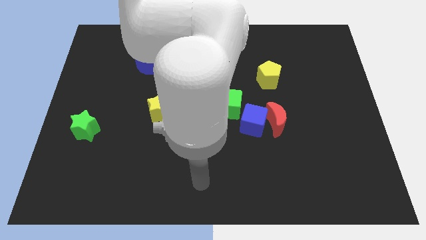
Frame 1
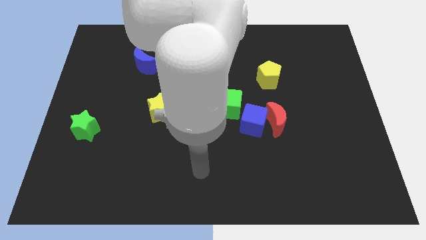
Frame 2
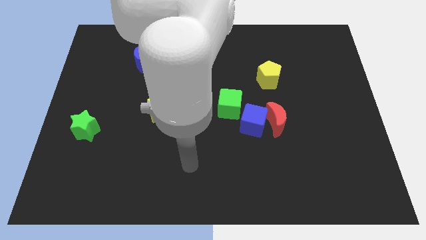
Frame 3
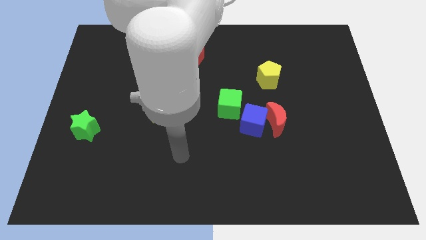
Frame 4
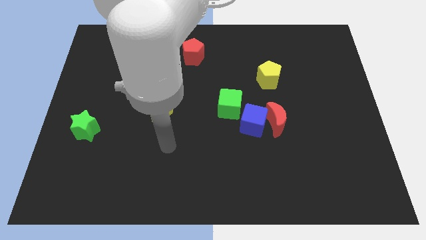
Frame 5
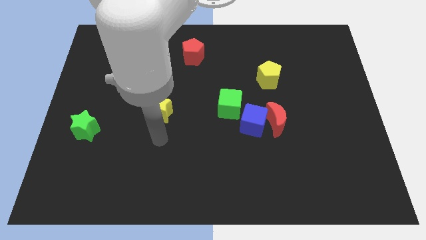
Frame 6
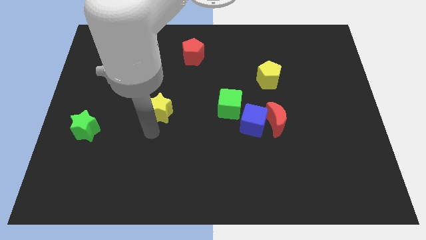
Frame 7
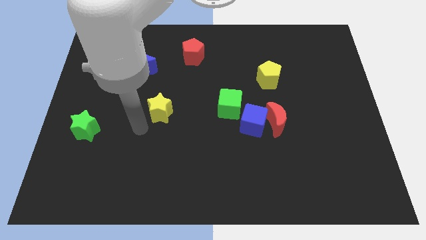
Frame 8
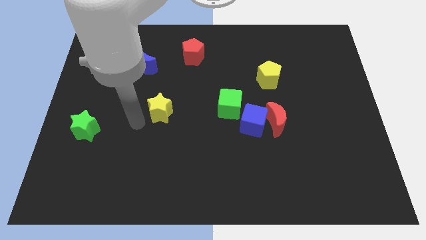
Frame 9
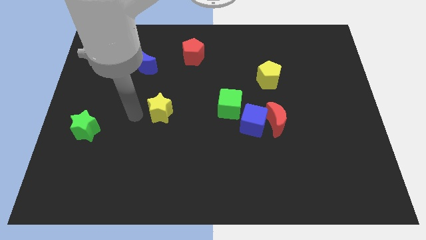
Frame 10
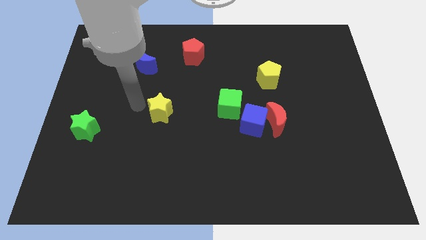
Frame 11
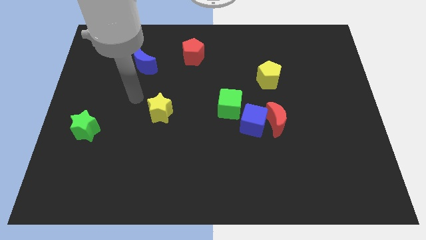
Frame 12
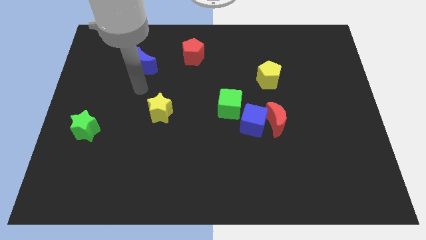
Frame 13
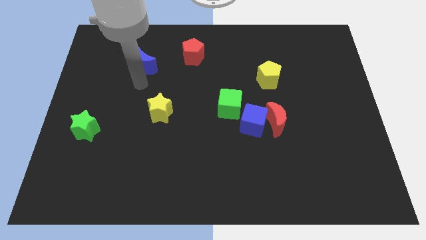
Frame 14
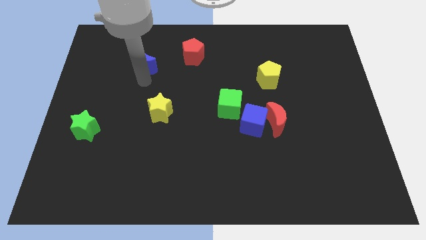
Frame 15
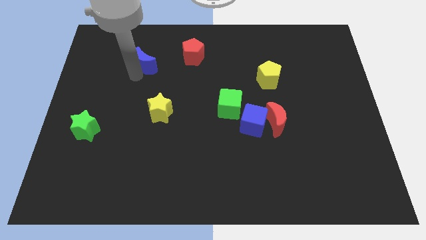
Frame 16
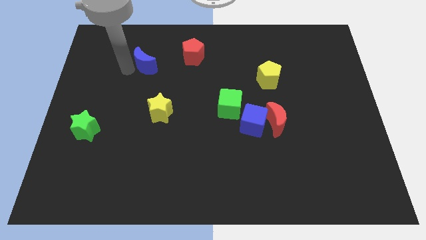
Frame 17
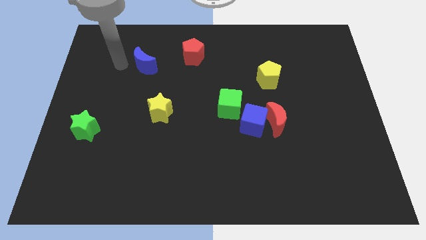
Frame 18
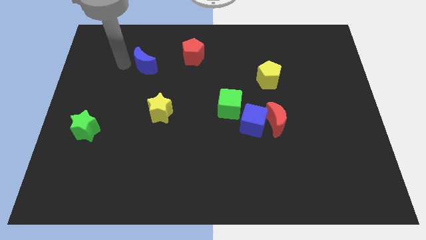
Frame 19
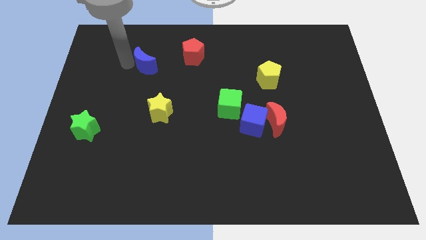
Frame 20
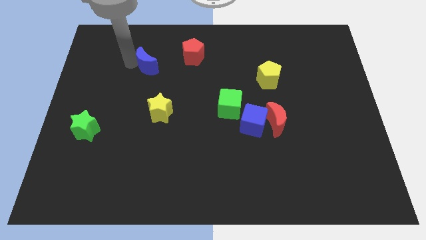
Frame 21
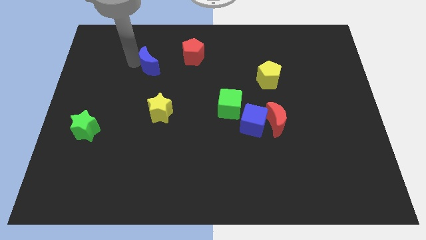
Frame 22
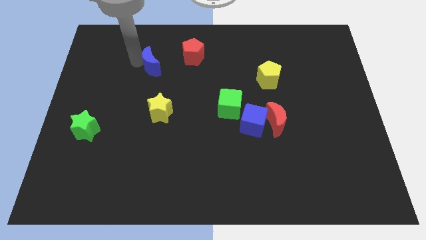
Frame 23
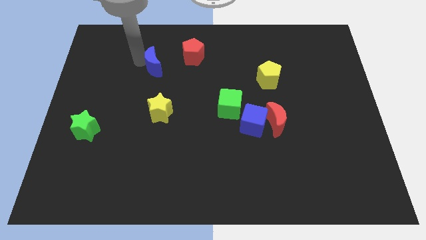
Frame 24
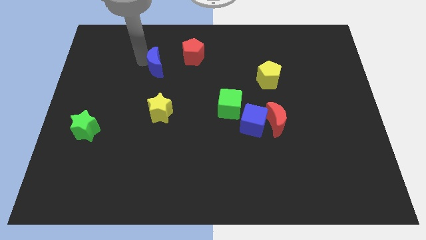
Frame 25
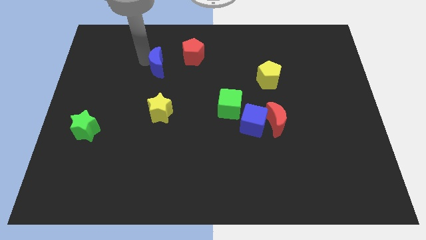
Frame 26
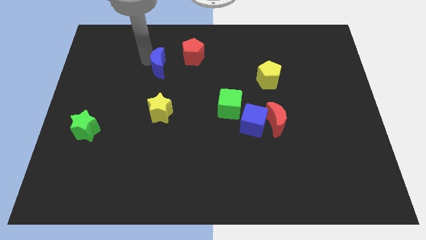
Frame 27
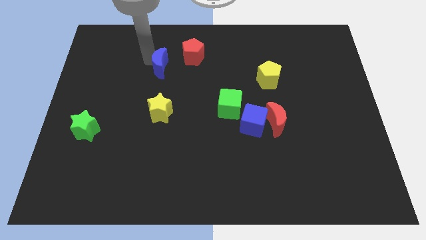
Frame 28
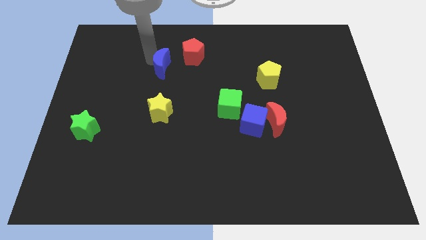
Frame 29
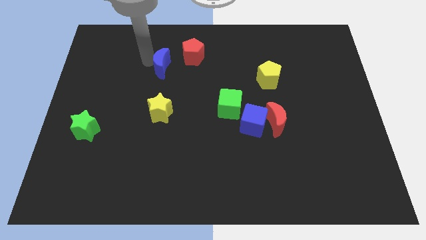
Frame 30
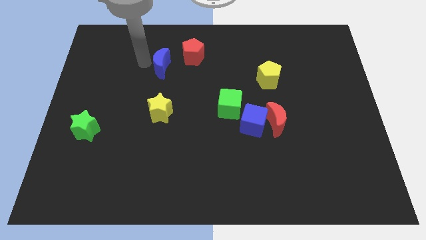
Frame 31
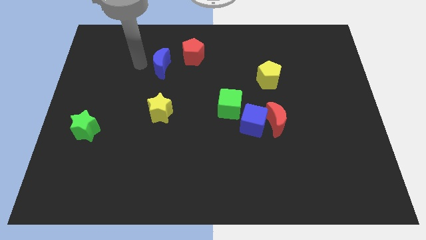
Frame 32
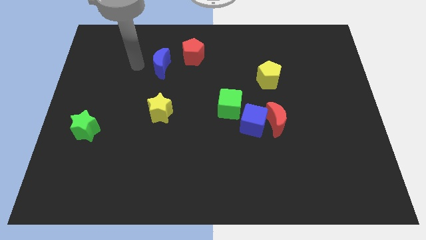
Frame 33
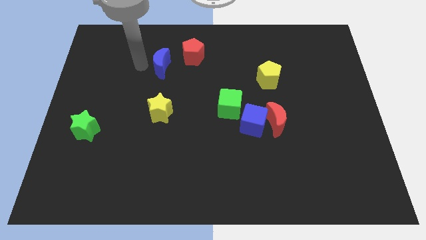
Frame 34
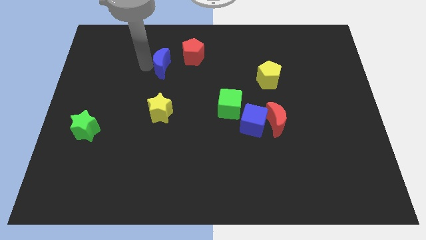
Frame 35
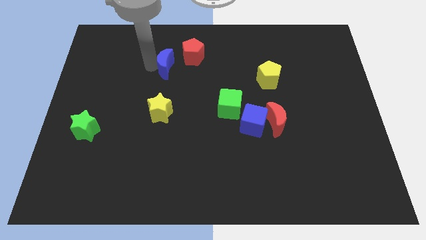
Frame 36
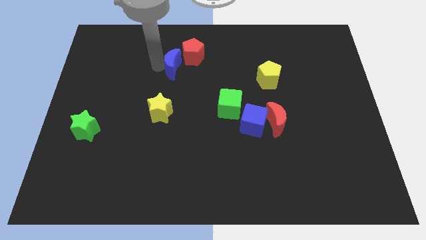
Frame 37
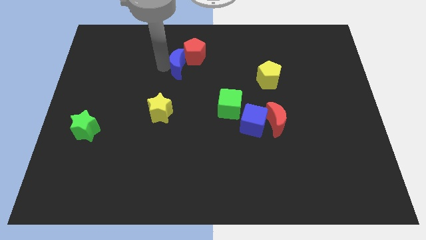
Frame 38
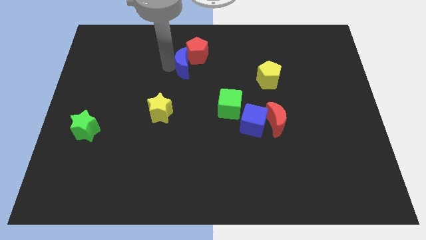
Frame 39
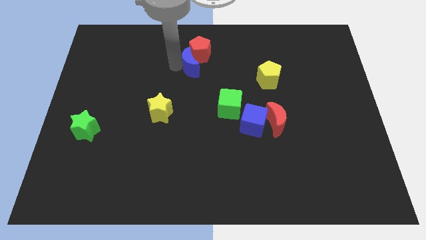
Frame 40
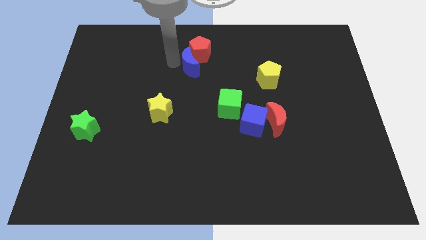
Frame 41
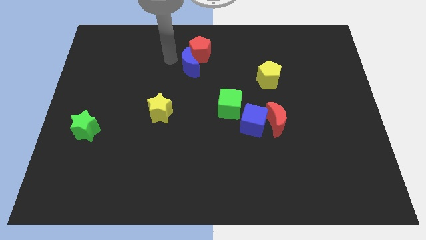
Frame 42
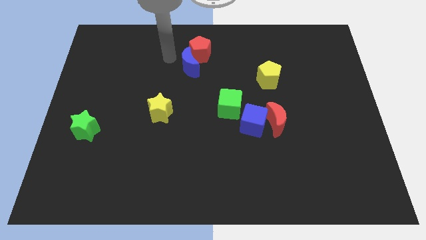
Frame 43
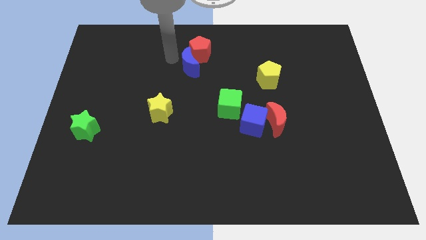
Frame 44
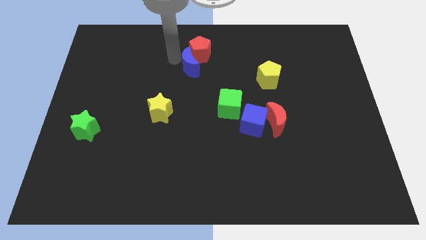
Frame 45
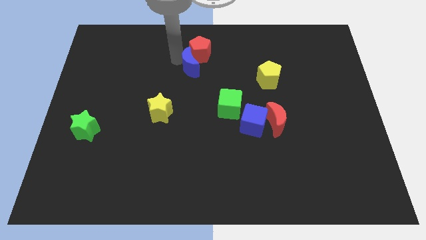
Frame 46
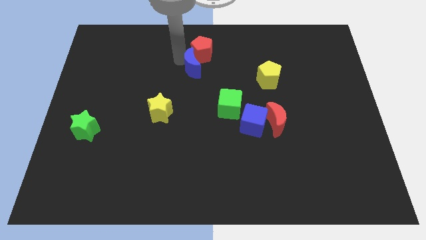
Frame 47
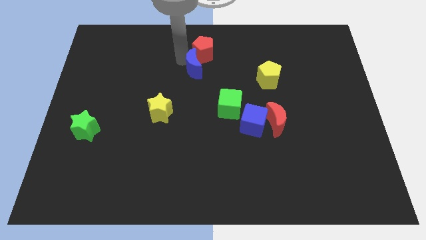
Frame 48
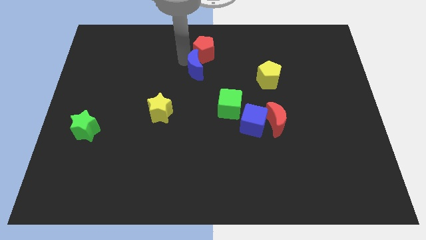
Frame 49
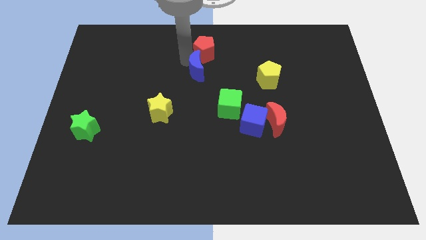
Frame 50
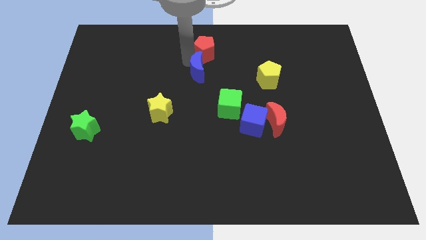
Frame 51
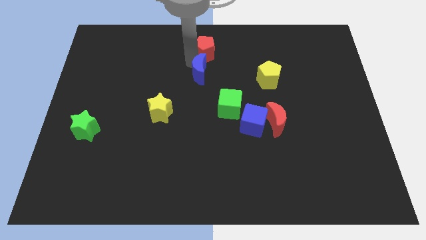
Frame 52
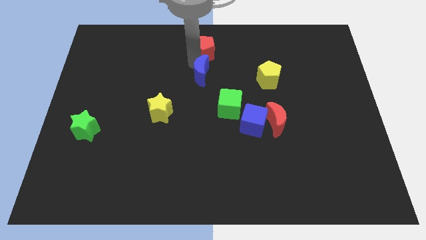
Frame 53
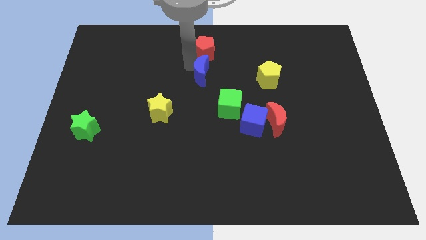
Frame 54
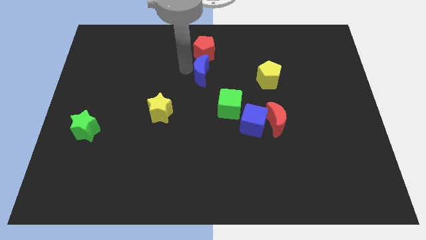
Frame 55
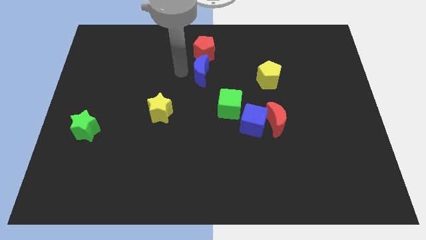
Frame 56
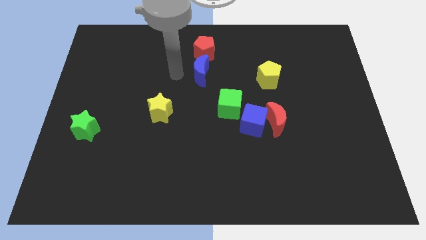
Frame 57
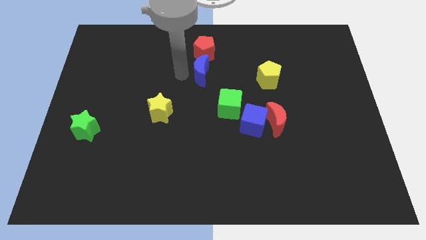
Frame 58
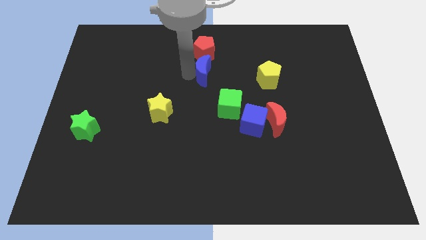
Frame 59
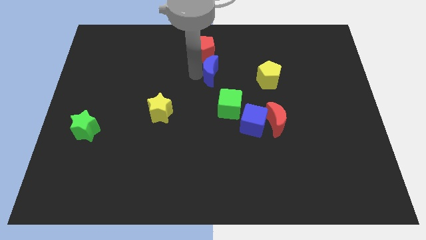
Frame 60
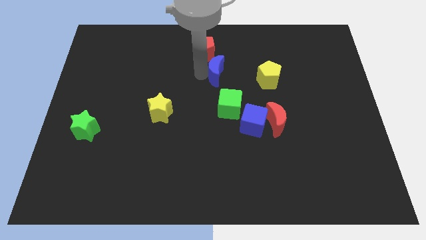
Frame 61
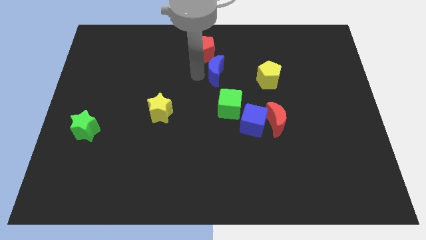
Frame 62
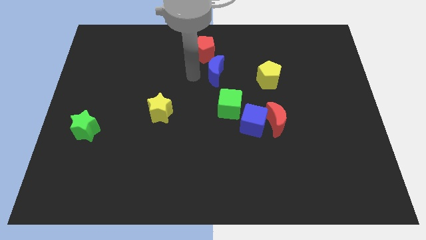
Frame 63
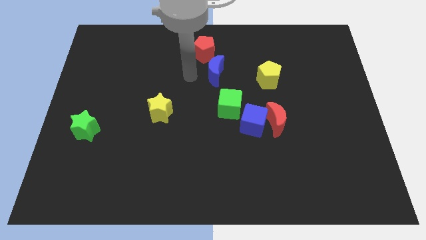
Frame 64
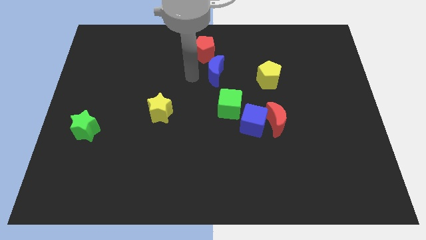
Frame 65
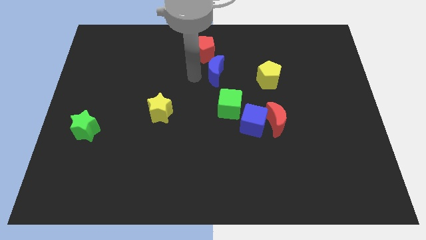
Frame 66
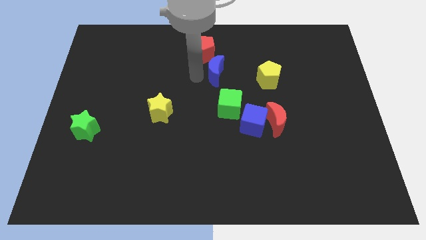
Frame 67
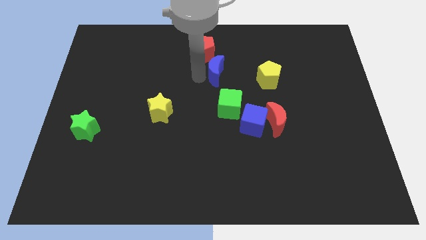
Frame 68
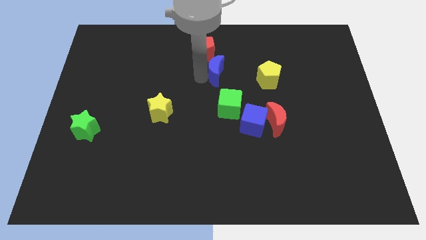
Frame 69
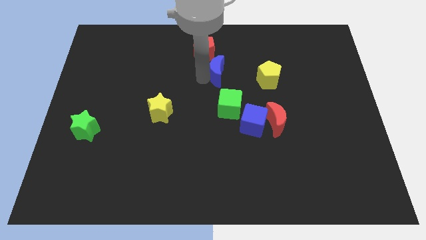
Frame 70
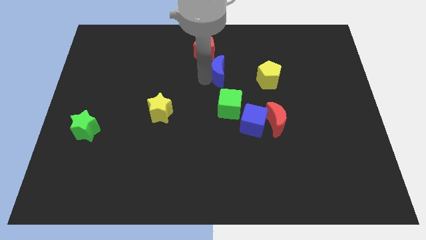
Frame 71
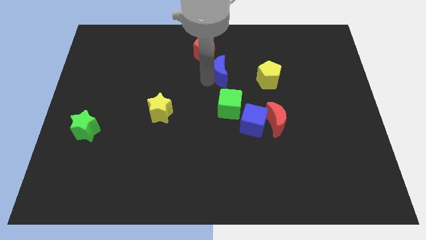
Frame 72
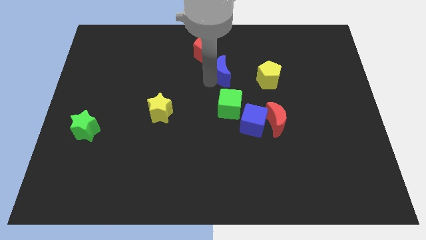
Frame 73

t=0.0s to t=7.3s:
move the blue moon to the right

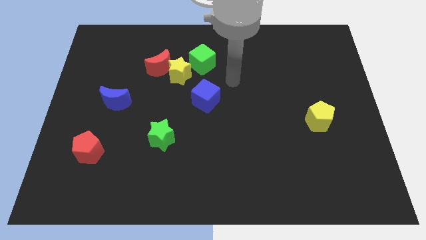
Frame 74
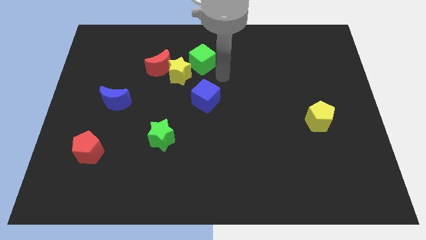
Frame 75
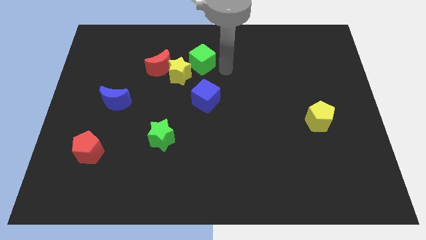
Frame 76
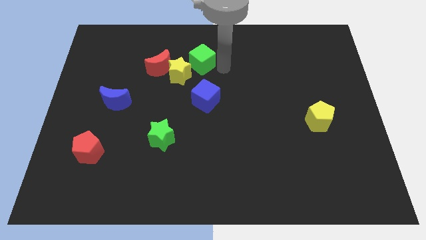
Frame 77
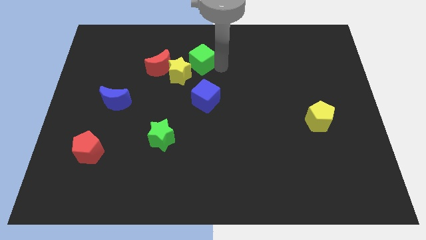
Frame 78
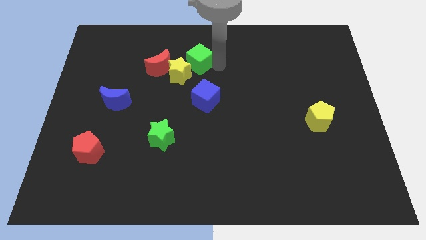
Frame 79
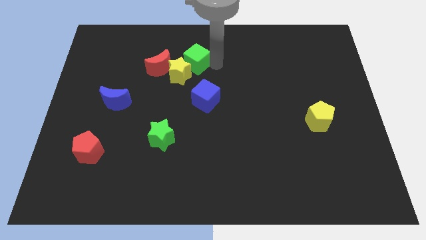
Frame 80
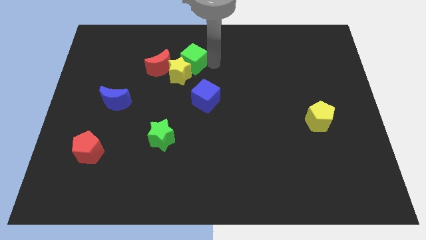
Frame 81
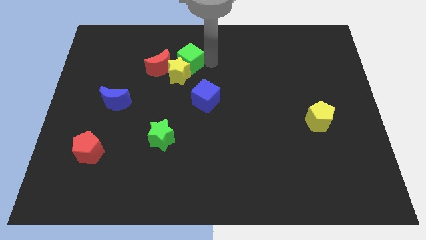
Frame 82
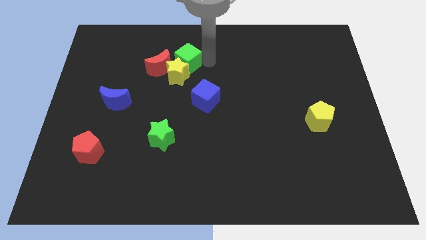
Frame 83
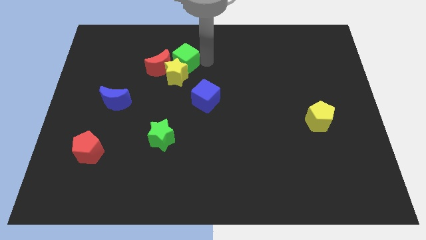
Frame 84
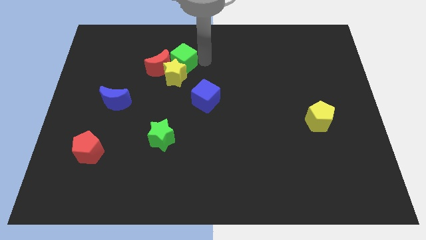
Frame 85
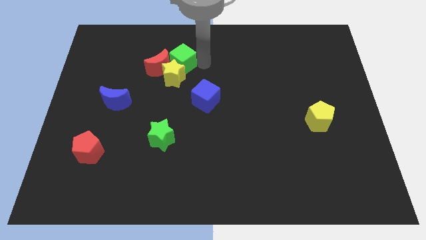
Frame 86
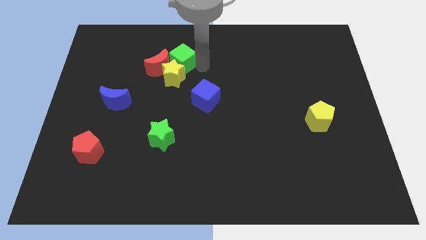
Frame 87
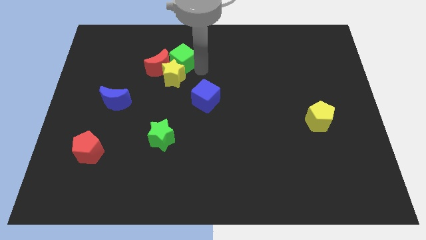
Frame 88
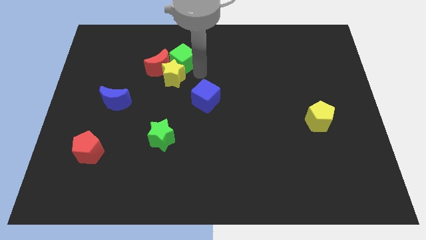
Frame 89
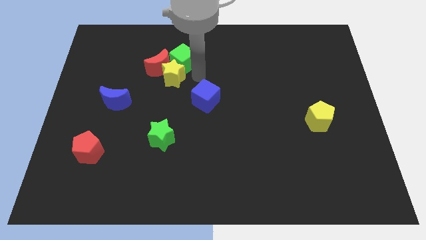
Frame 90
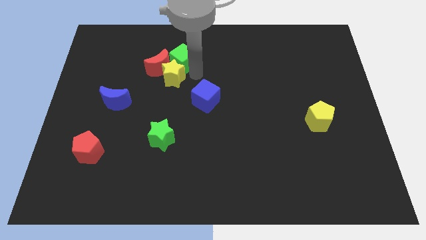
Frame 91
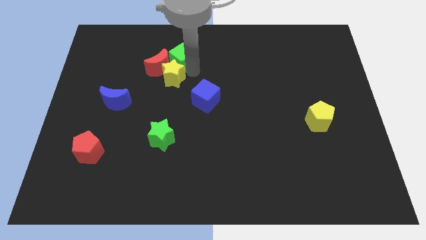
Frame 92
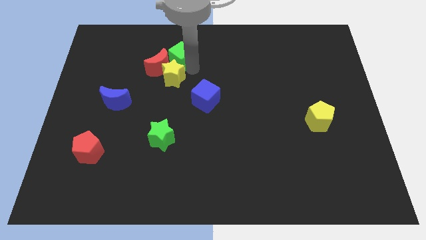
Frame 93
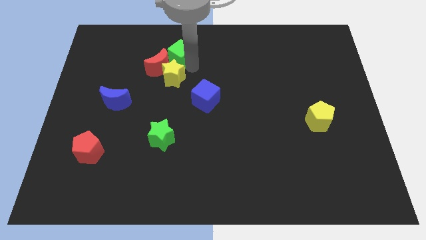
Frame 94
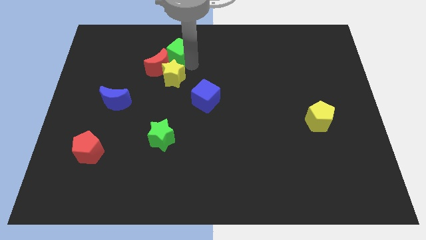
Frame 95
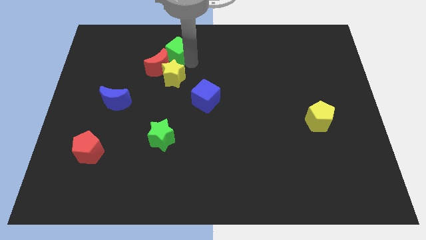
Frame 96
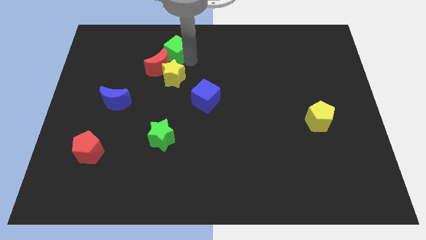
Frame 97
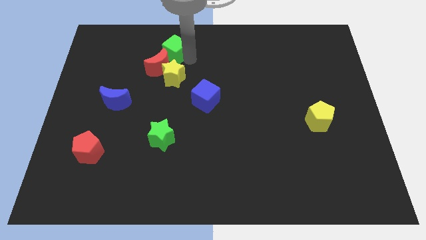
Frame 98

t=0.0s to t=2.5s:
move the green cube a little left
